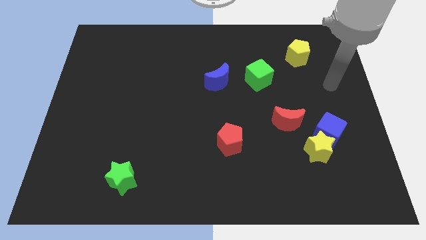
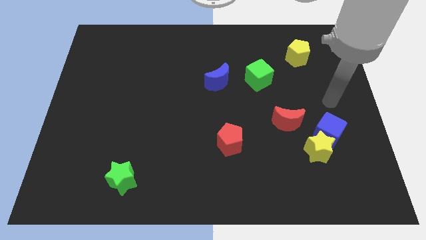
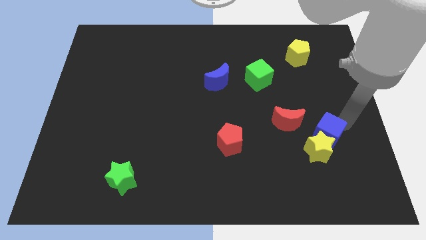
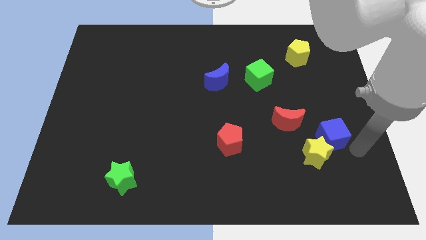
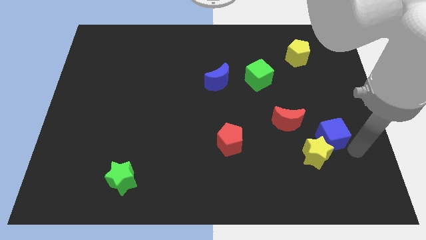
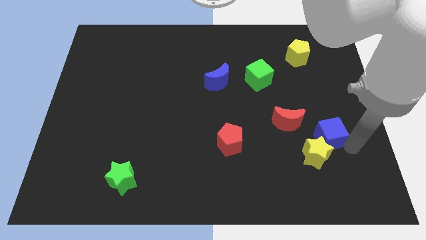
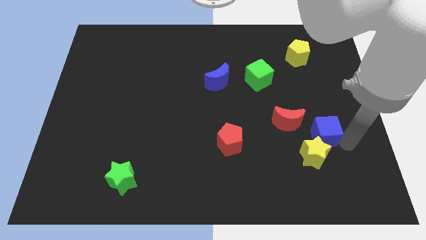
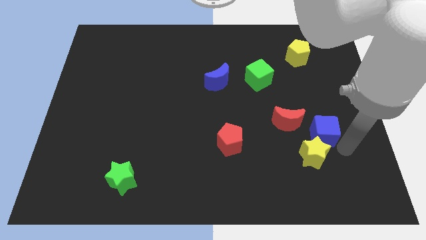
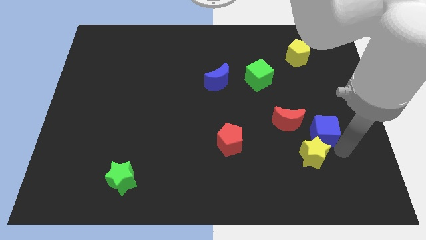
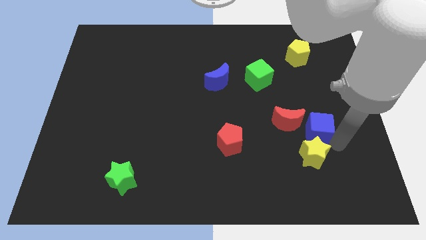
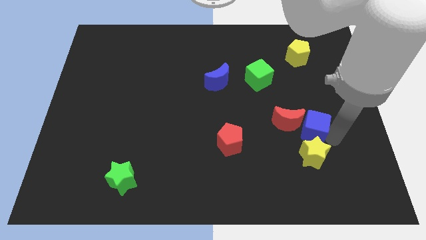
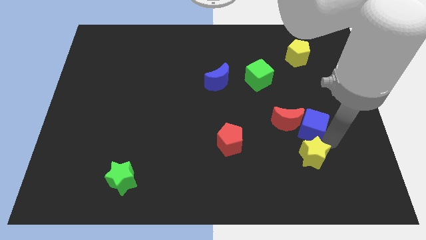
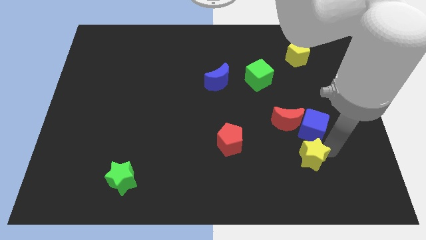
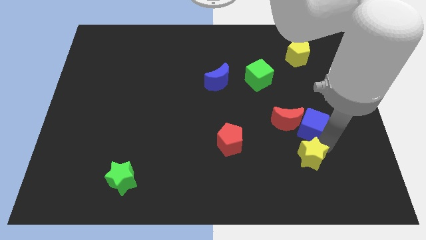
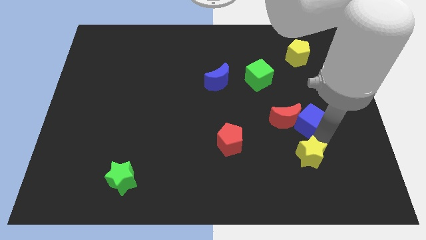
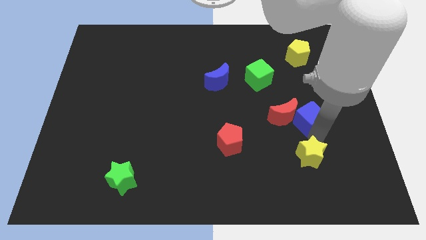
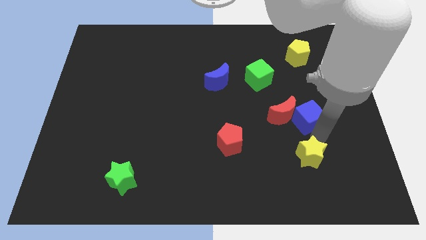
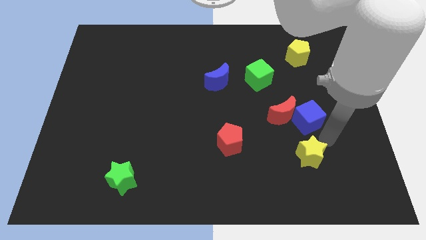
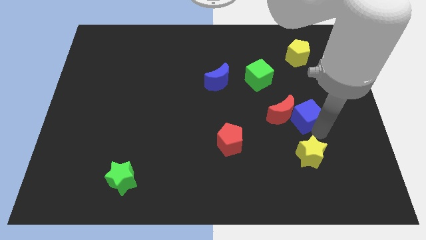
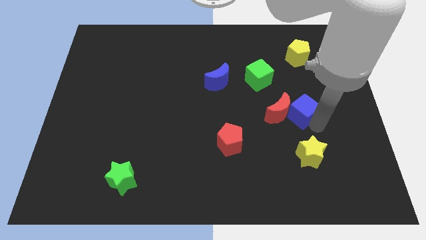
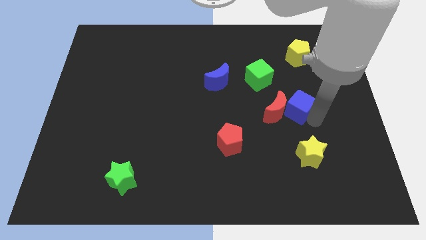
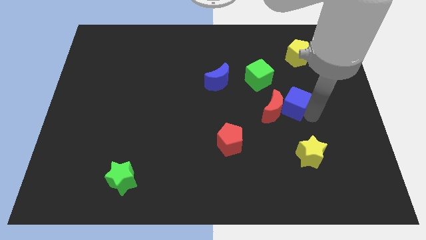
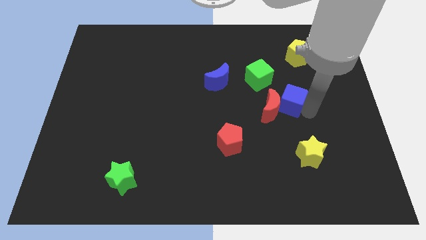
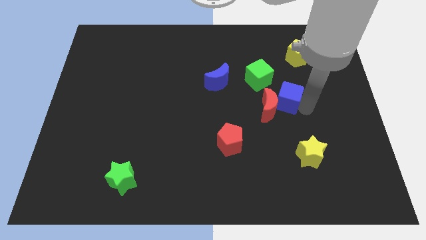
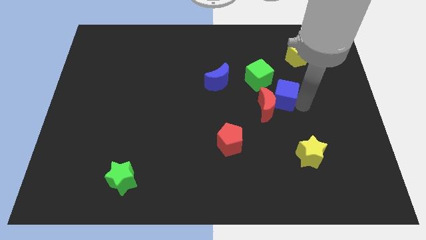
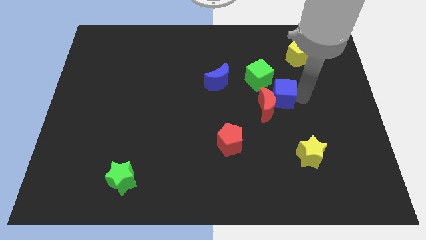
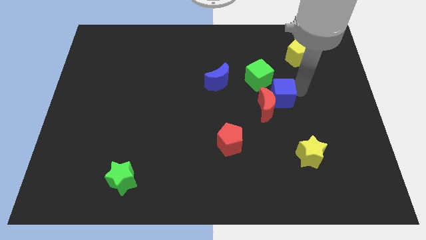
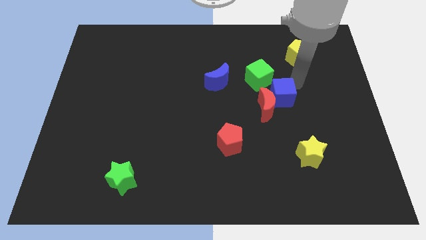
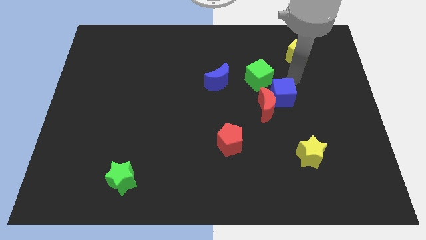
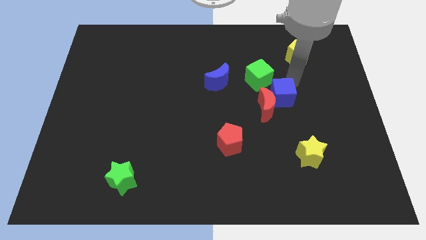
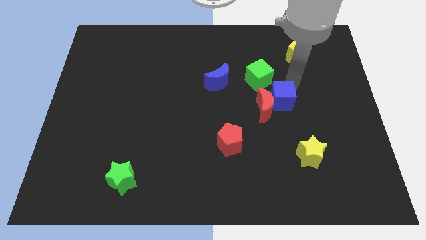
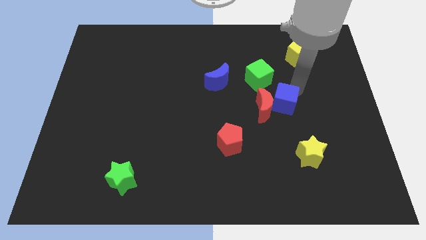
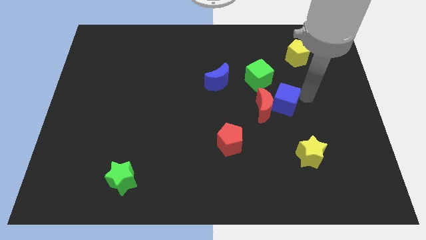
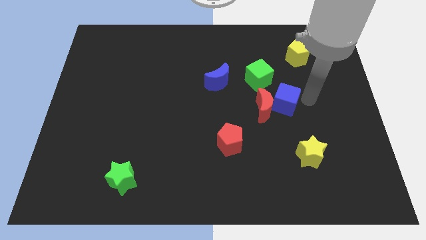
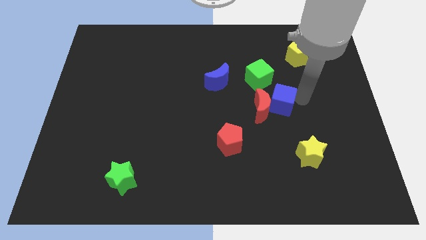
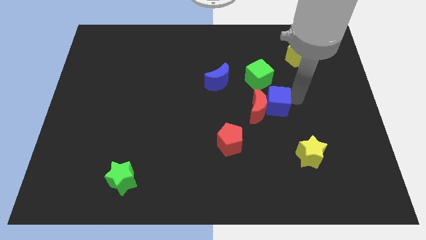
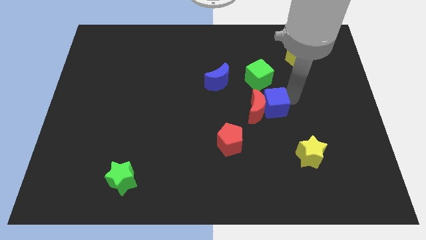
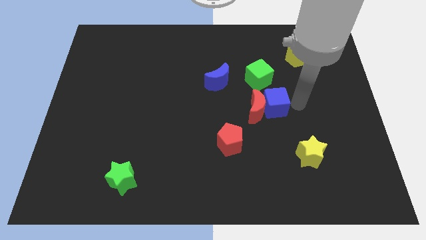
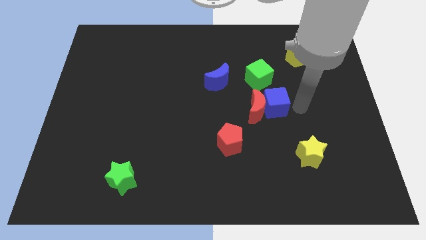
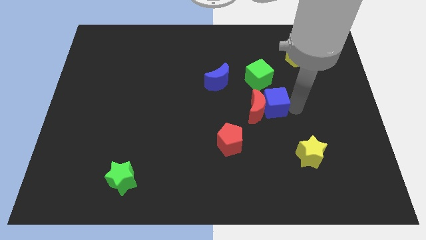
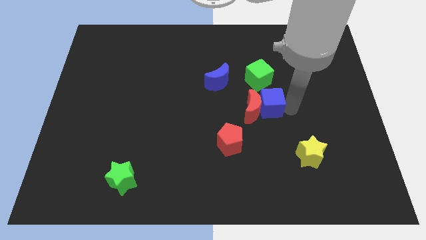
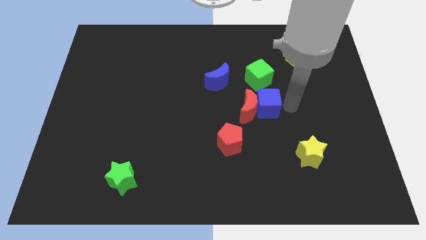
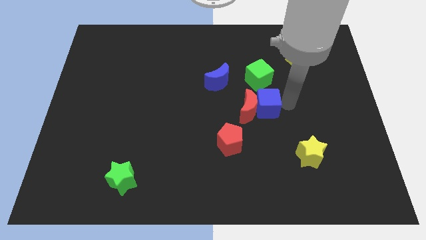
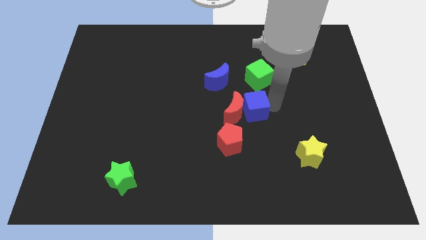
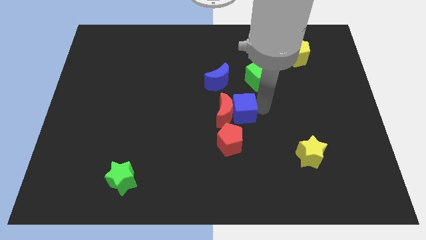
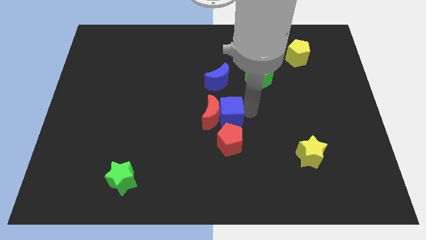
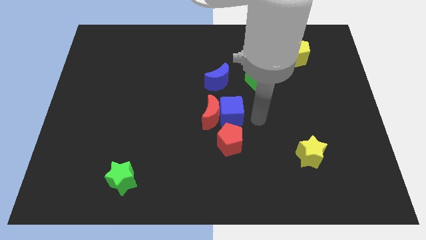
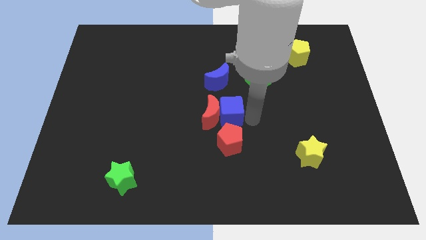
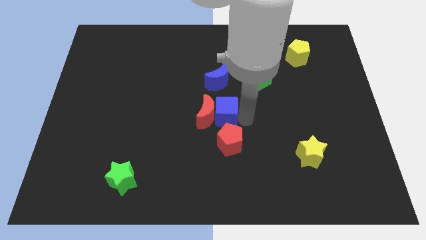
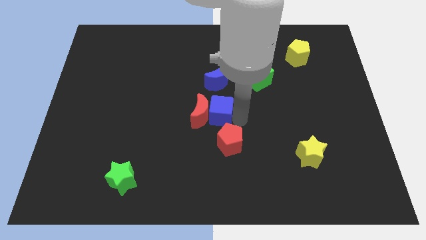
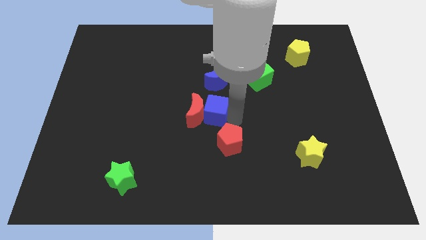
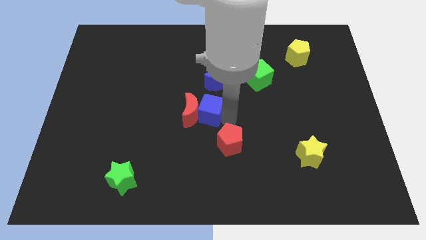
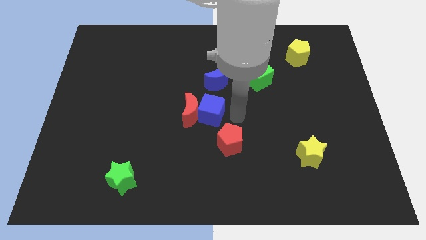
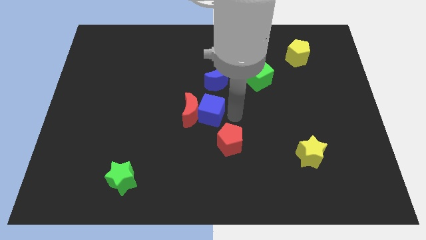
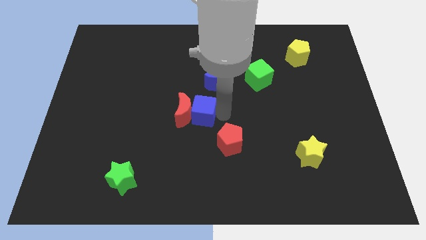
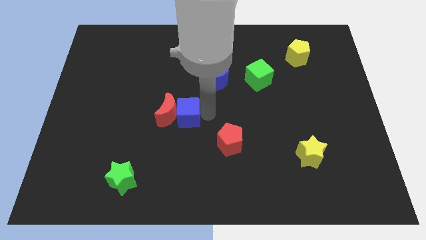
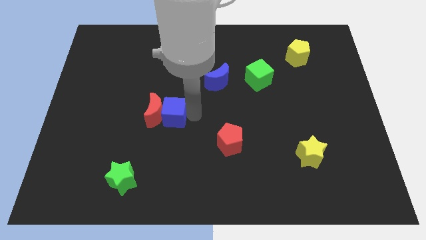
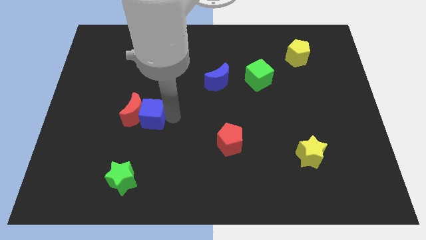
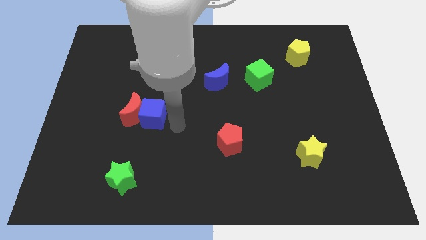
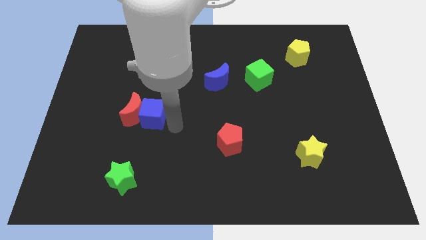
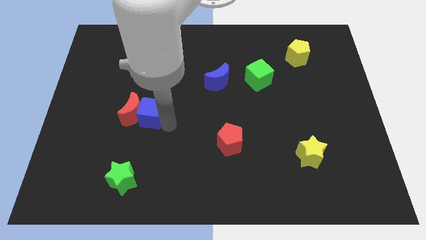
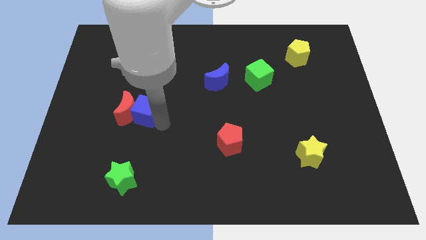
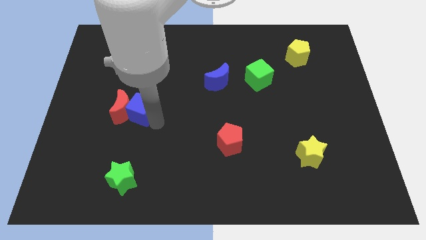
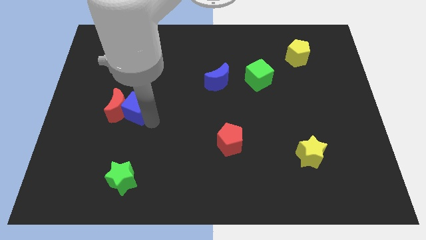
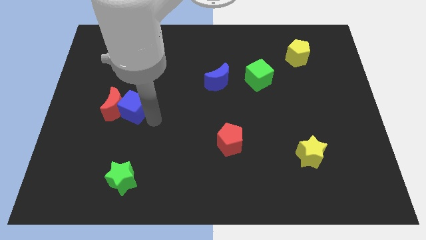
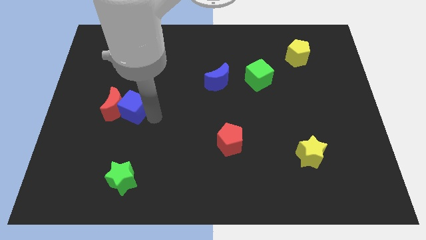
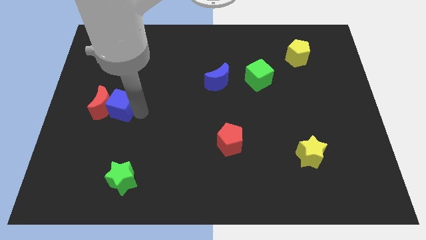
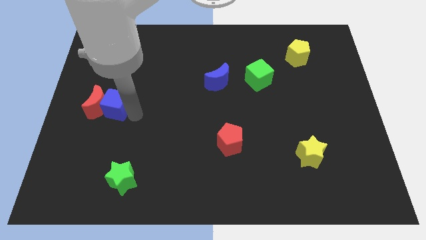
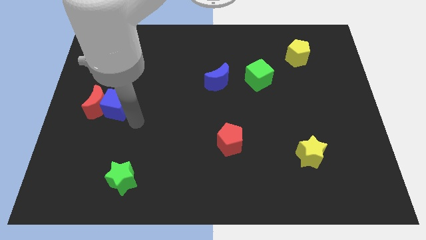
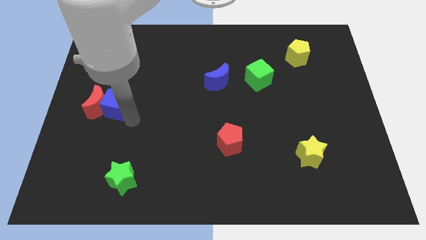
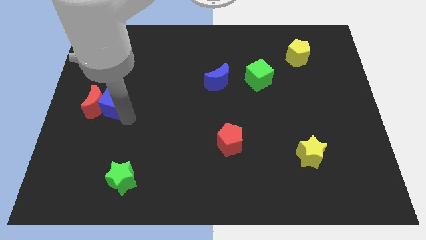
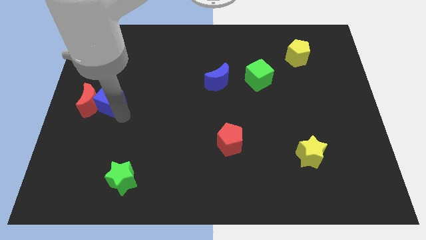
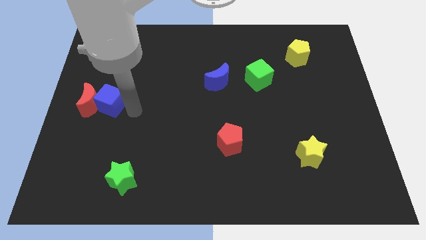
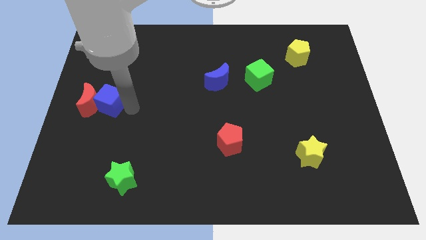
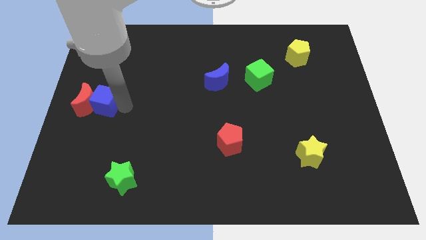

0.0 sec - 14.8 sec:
push the blue cube to the left side
